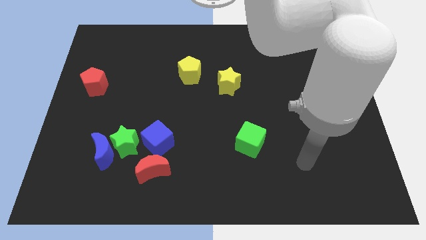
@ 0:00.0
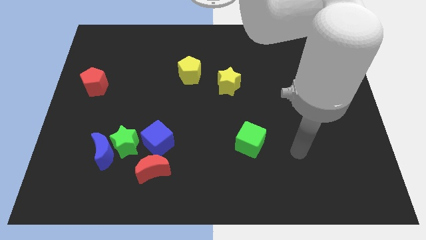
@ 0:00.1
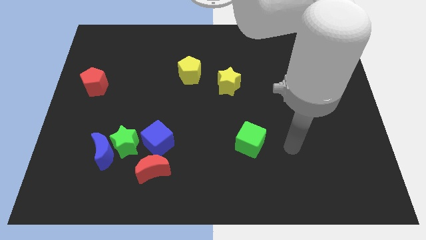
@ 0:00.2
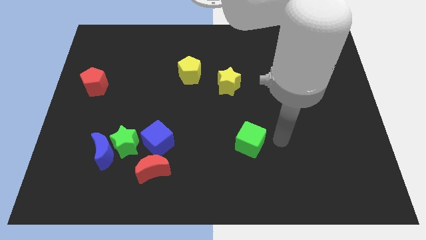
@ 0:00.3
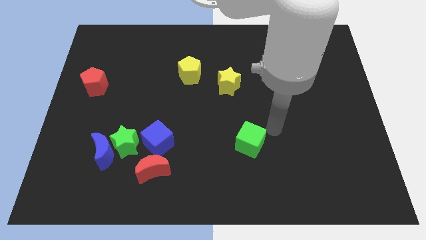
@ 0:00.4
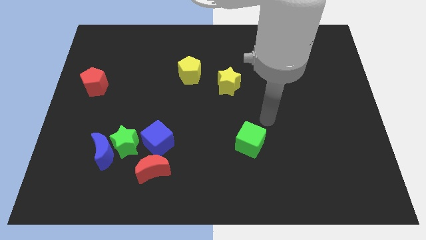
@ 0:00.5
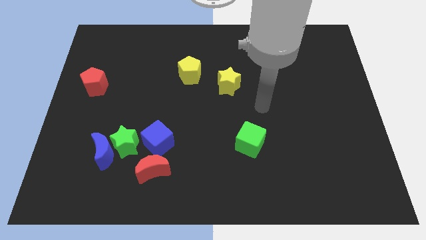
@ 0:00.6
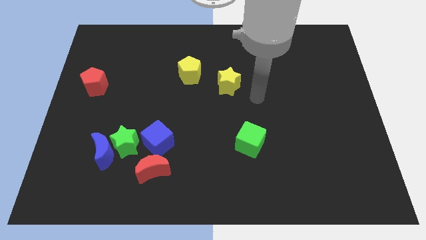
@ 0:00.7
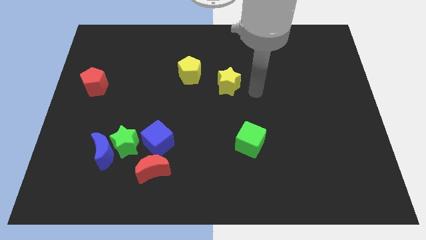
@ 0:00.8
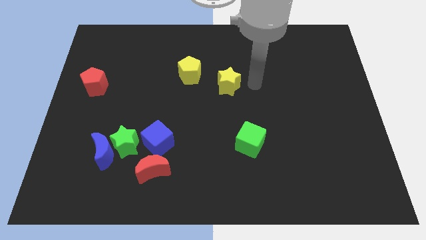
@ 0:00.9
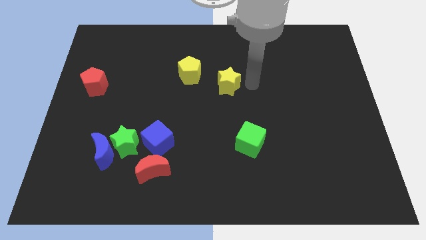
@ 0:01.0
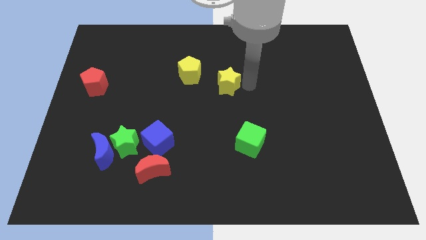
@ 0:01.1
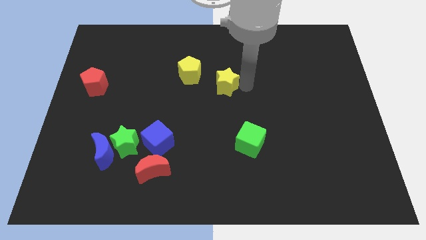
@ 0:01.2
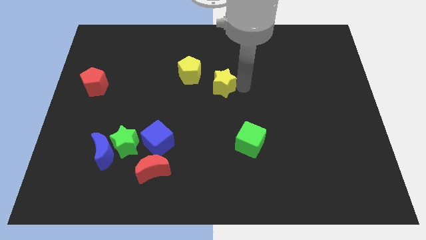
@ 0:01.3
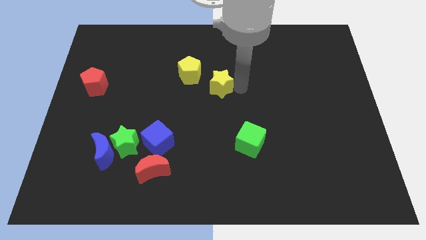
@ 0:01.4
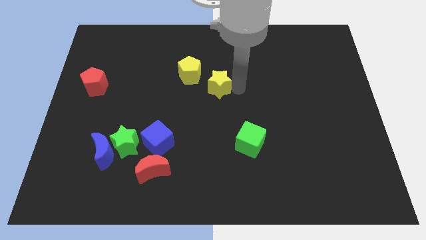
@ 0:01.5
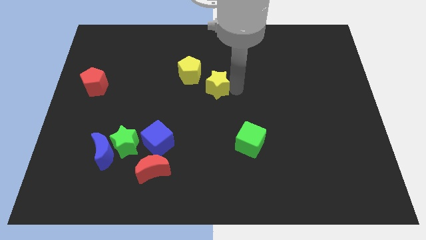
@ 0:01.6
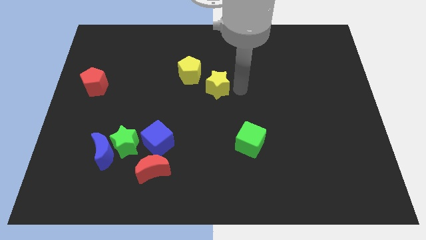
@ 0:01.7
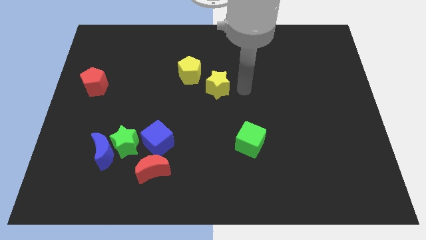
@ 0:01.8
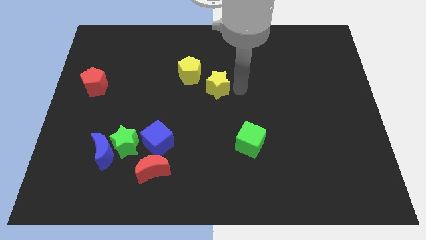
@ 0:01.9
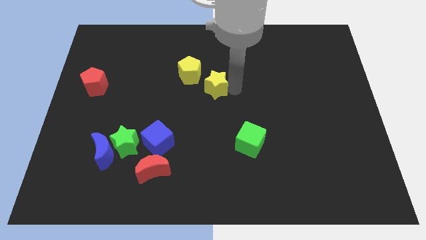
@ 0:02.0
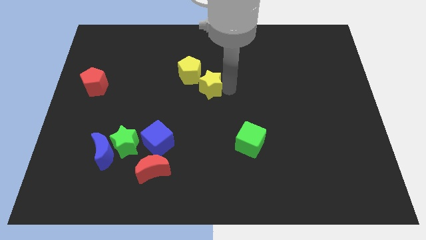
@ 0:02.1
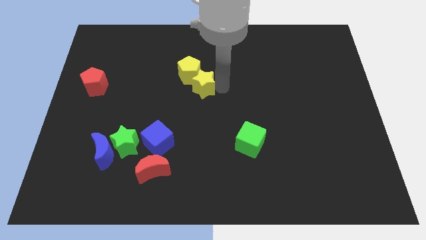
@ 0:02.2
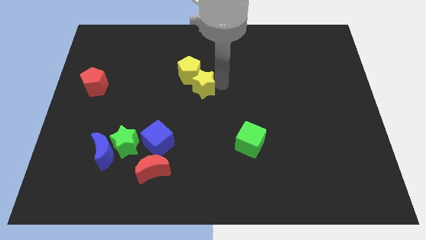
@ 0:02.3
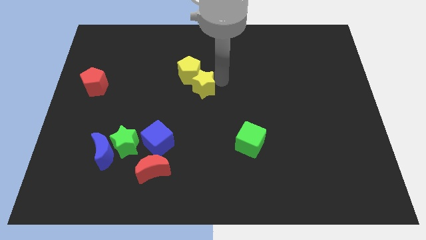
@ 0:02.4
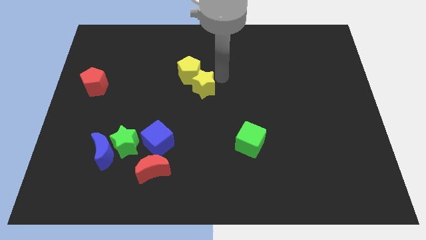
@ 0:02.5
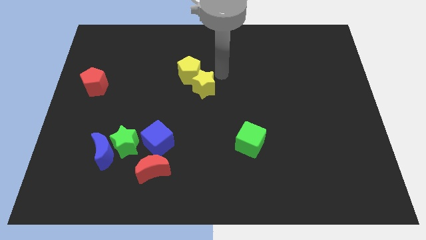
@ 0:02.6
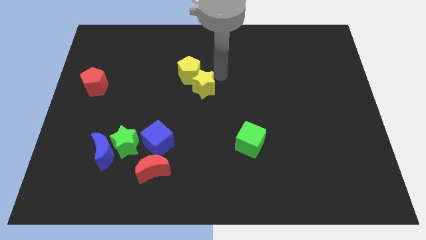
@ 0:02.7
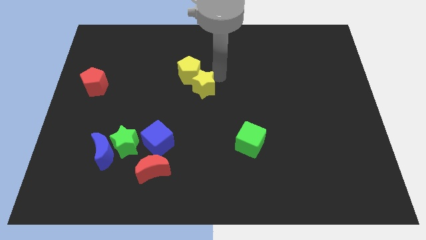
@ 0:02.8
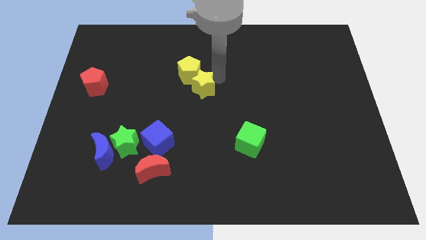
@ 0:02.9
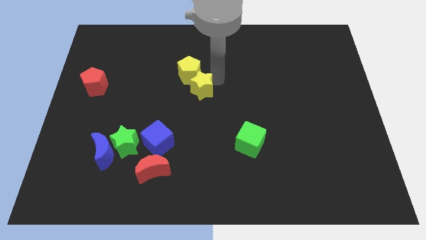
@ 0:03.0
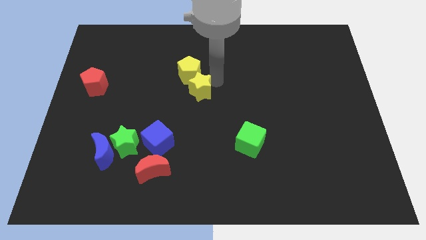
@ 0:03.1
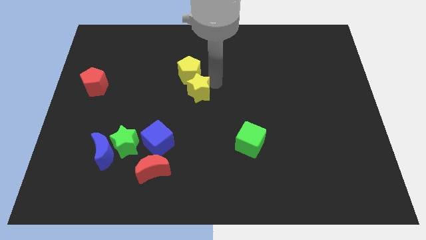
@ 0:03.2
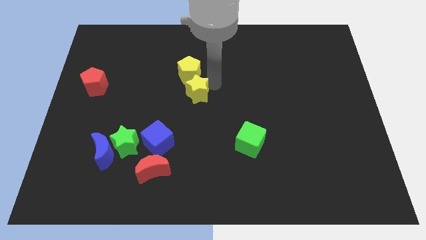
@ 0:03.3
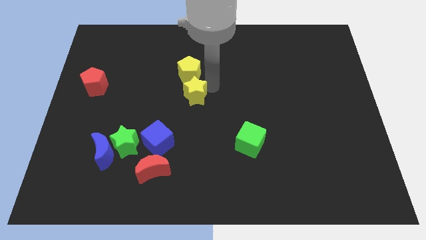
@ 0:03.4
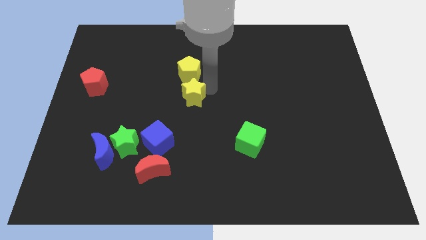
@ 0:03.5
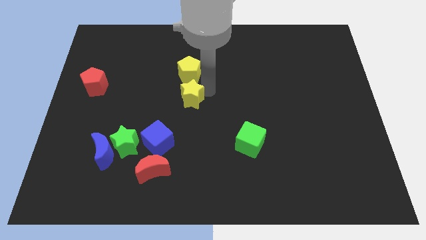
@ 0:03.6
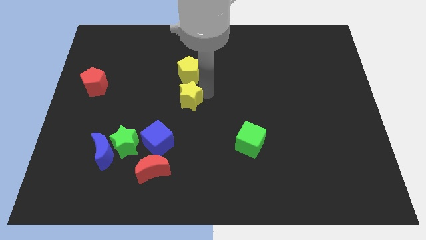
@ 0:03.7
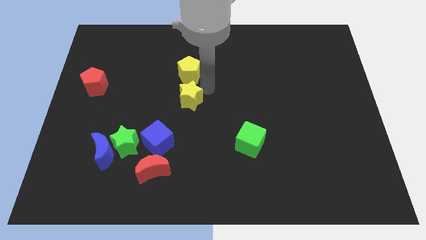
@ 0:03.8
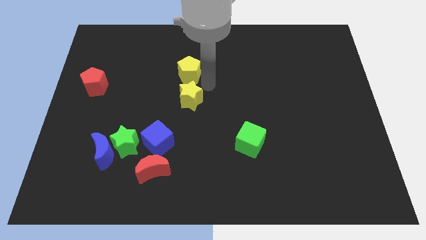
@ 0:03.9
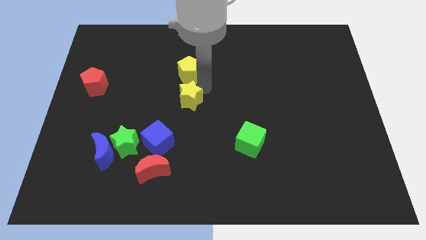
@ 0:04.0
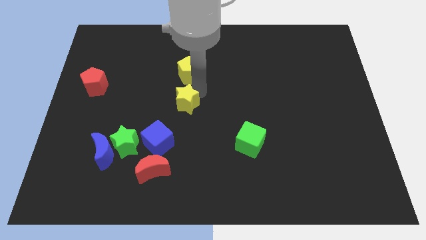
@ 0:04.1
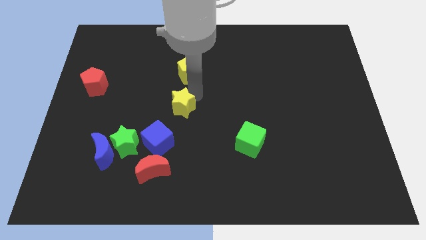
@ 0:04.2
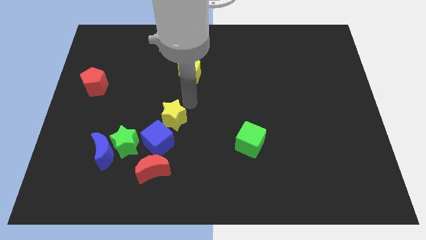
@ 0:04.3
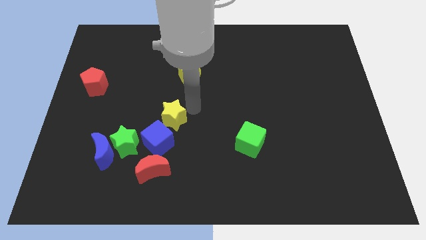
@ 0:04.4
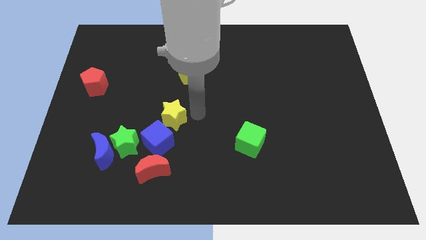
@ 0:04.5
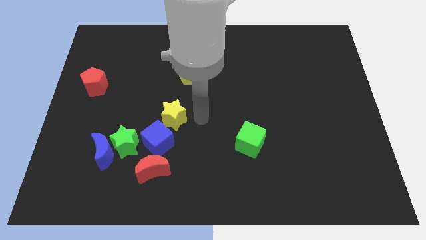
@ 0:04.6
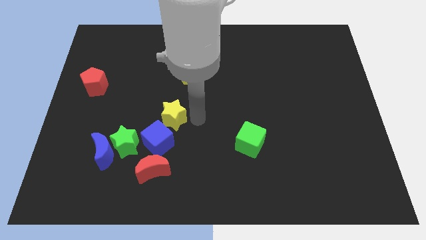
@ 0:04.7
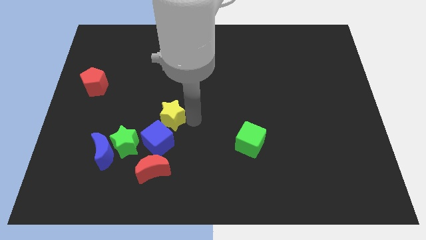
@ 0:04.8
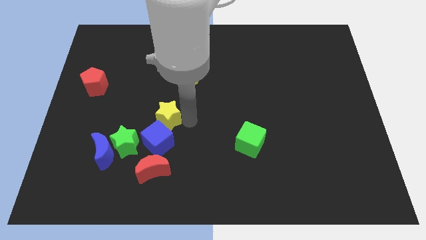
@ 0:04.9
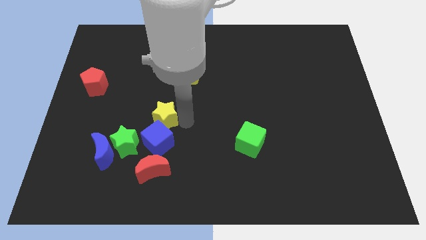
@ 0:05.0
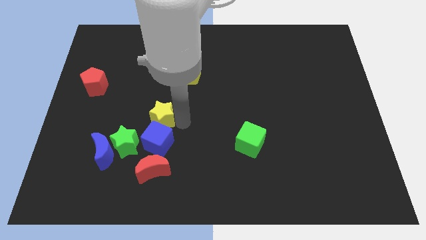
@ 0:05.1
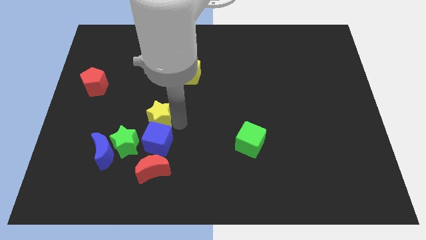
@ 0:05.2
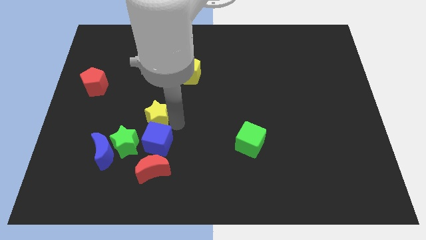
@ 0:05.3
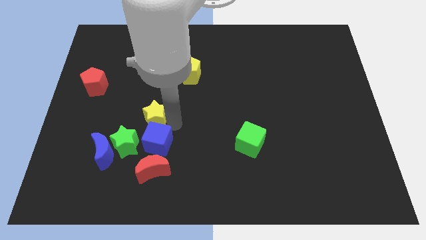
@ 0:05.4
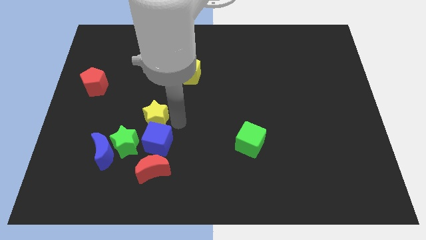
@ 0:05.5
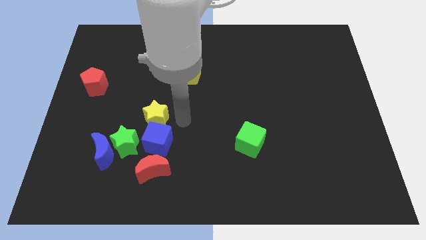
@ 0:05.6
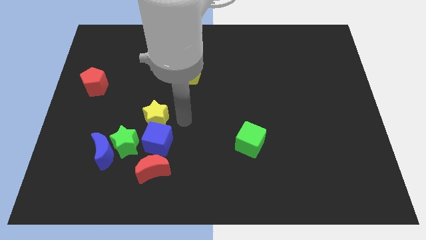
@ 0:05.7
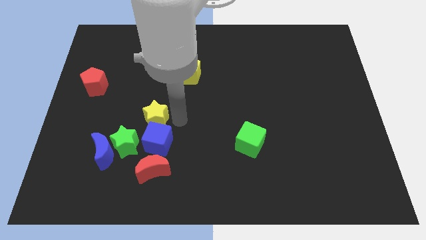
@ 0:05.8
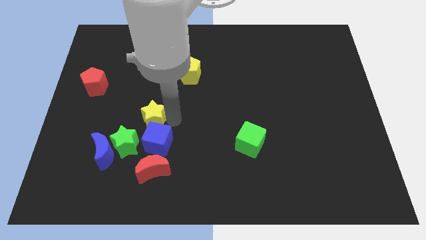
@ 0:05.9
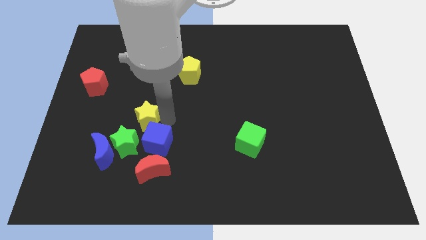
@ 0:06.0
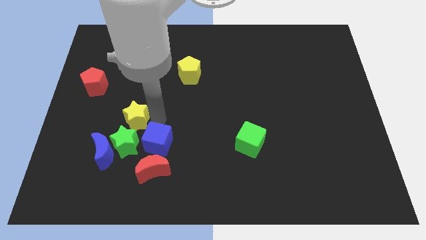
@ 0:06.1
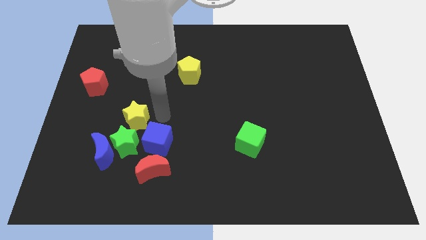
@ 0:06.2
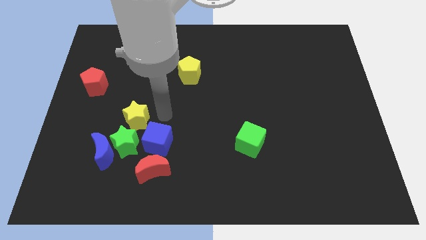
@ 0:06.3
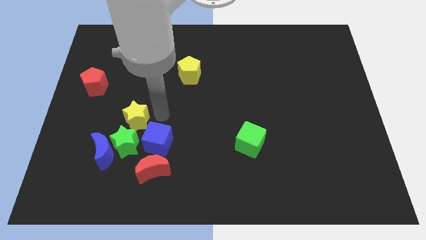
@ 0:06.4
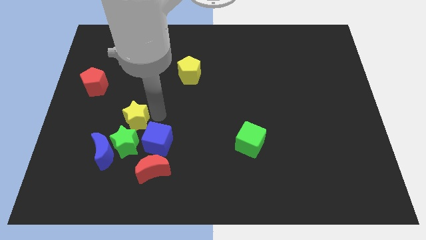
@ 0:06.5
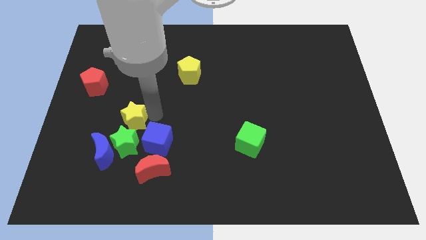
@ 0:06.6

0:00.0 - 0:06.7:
slide the yellow star diagonally up and to the left of the green star

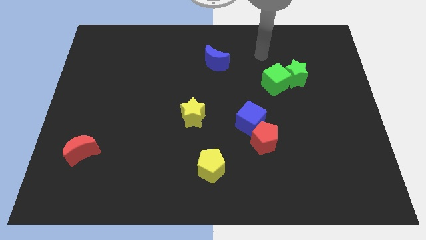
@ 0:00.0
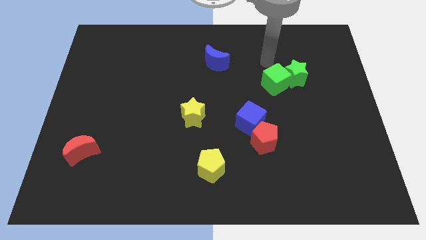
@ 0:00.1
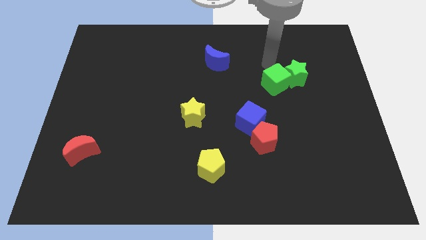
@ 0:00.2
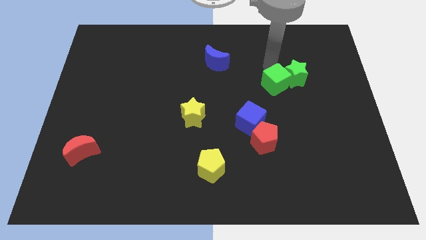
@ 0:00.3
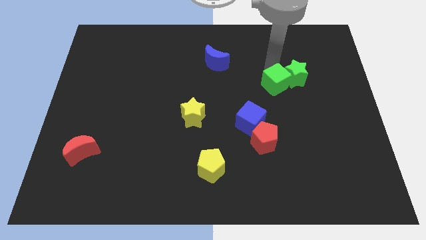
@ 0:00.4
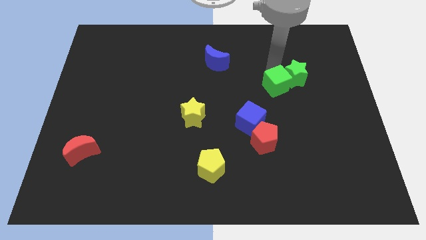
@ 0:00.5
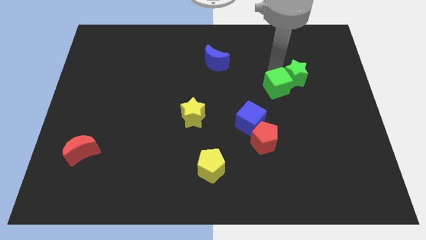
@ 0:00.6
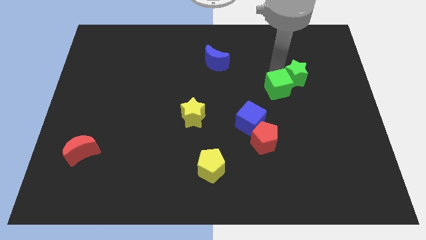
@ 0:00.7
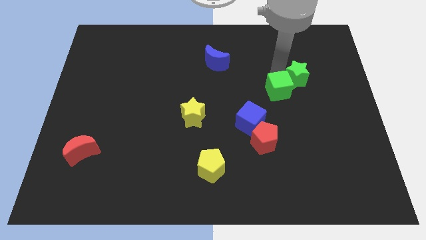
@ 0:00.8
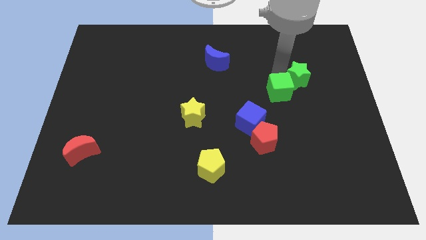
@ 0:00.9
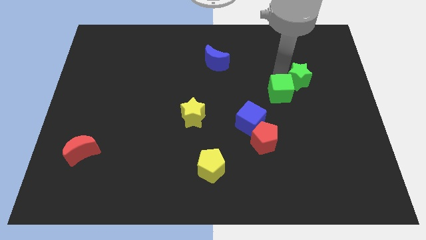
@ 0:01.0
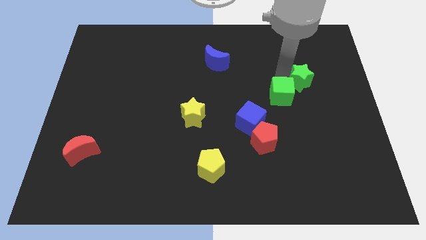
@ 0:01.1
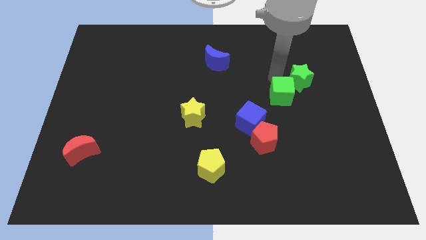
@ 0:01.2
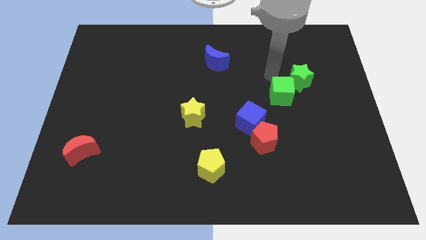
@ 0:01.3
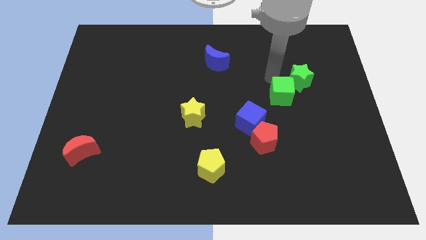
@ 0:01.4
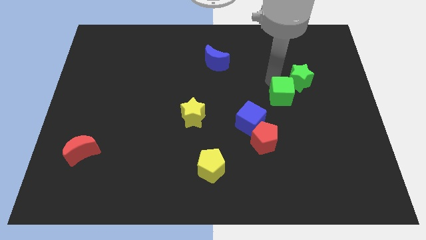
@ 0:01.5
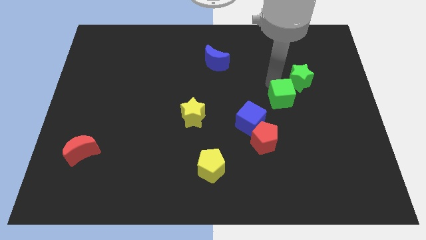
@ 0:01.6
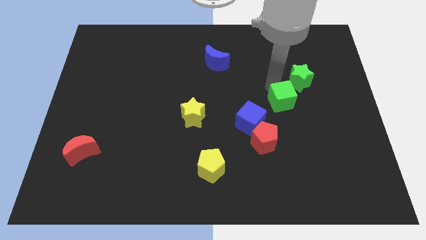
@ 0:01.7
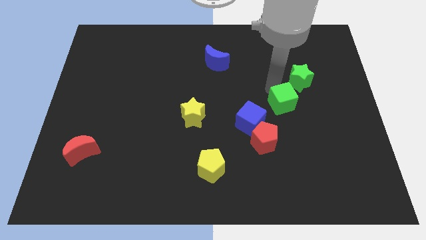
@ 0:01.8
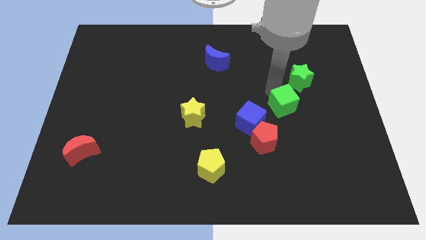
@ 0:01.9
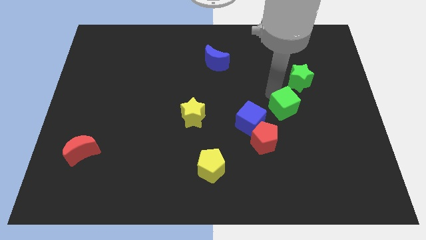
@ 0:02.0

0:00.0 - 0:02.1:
push the green cube just right of the blue cube
